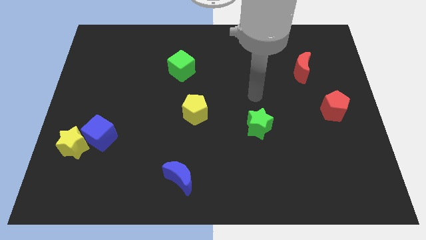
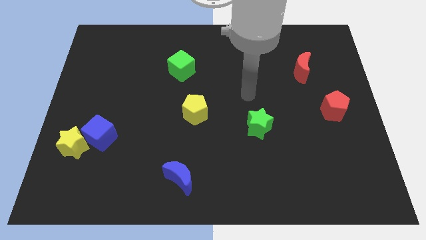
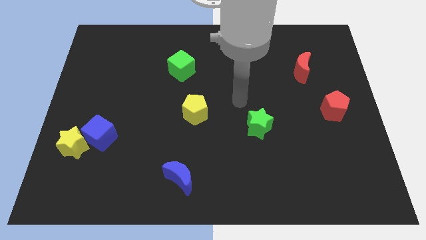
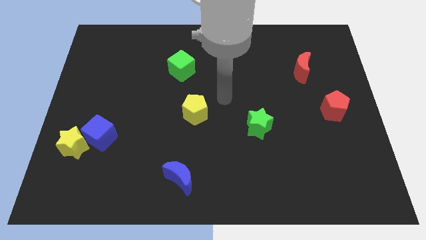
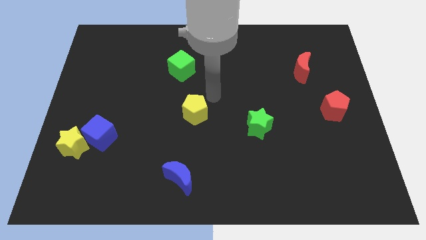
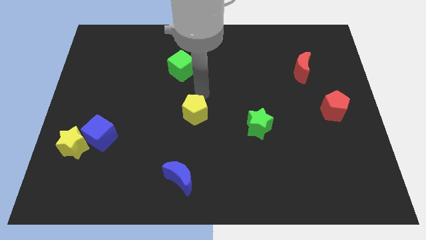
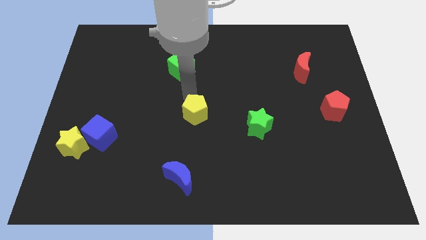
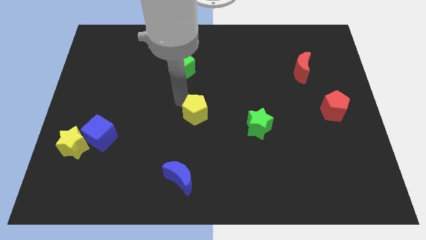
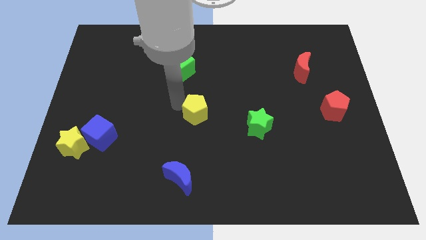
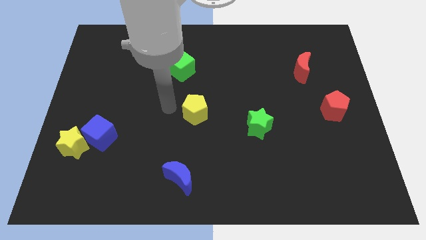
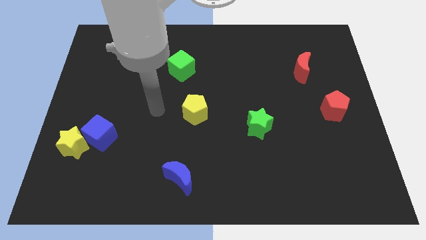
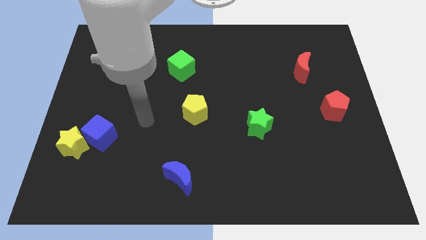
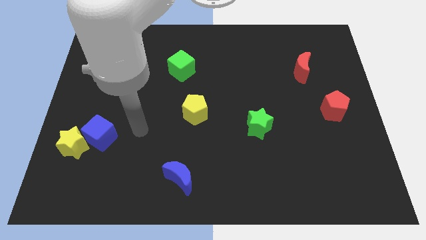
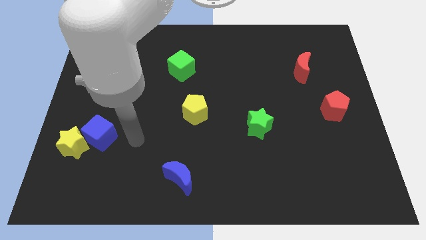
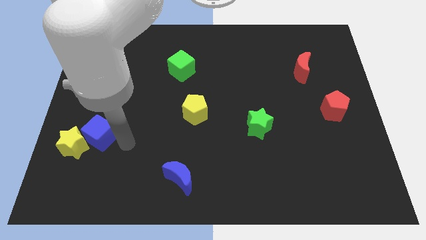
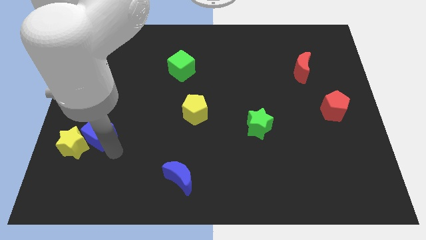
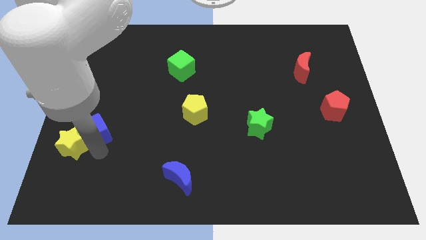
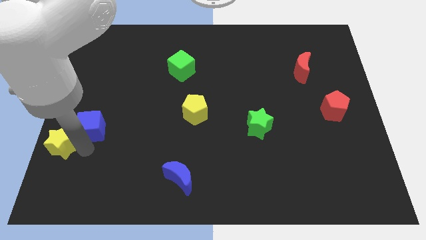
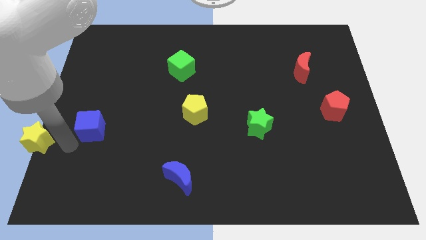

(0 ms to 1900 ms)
pull the blue cube apart from the yellow star

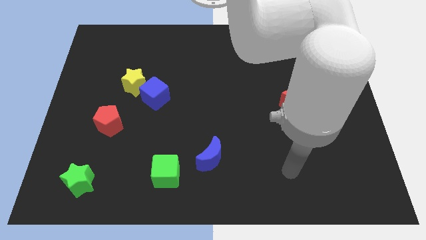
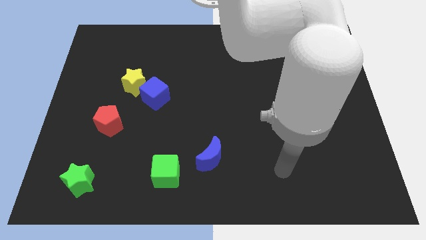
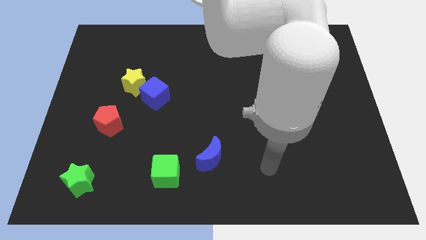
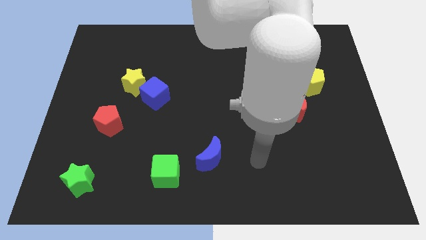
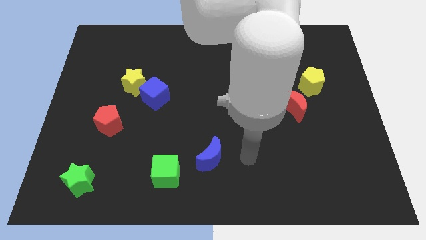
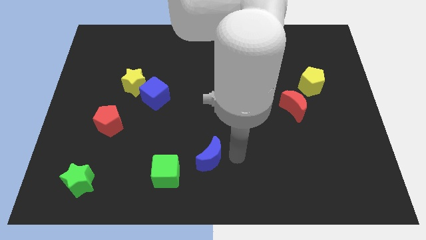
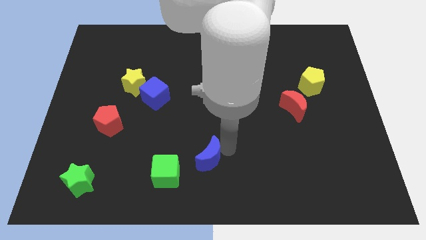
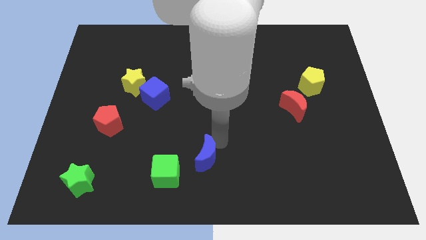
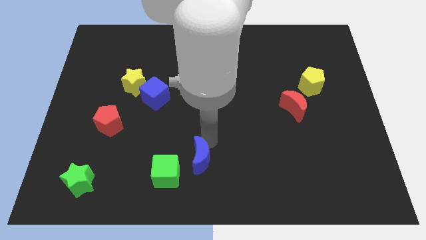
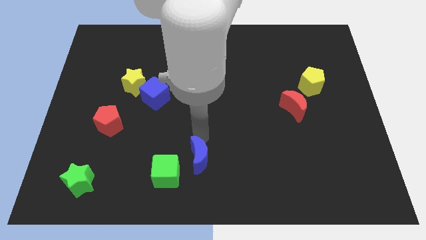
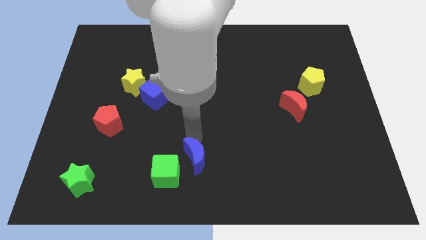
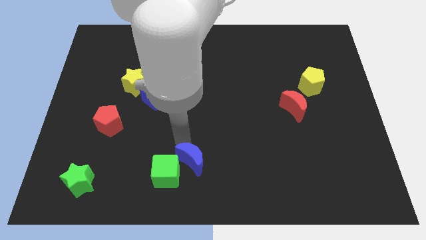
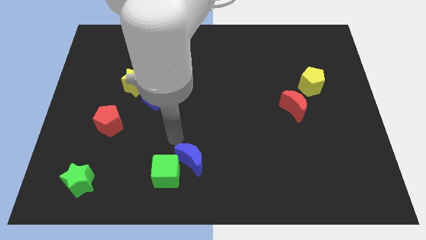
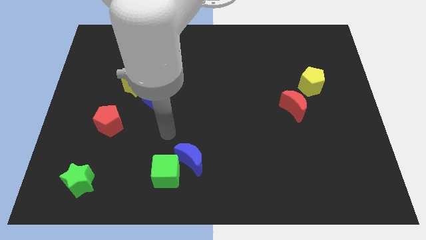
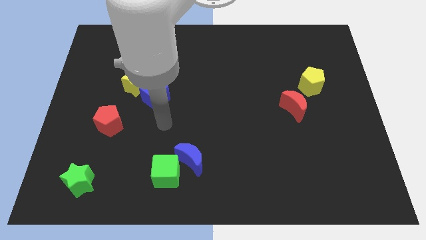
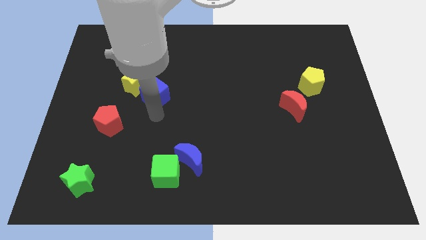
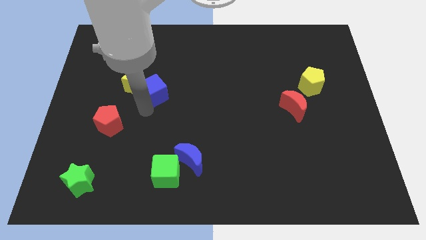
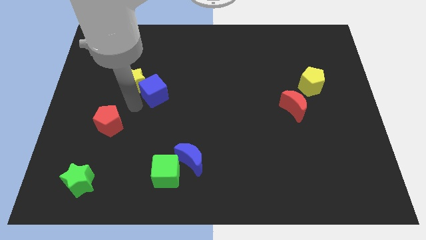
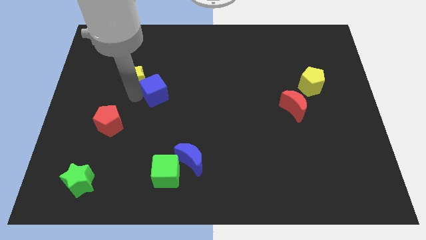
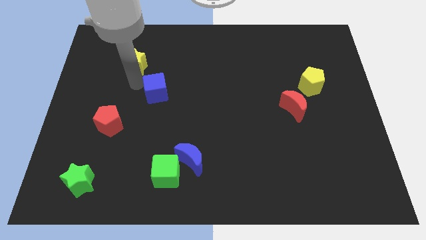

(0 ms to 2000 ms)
move the blue cube away from the yellow star

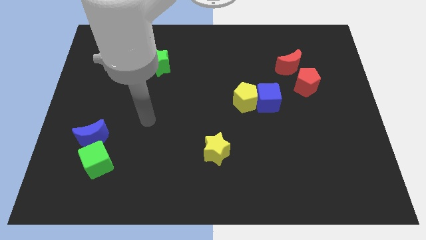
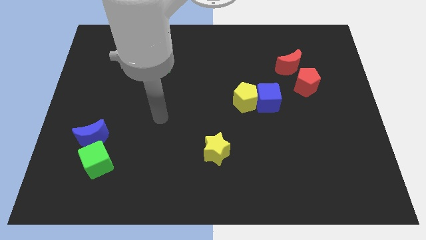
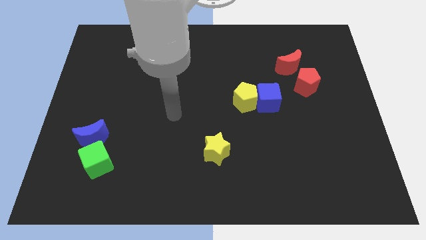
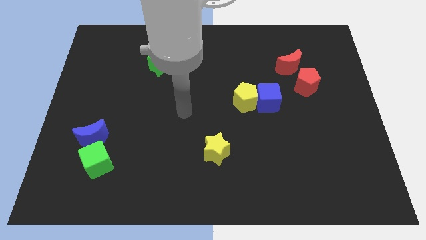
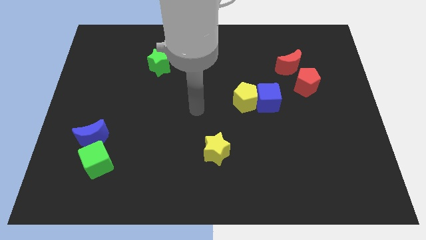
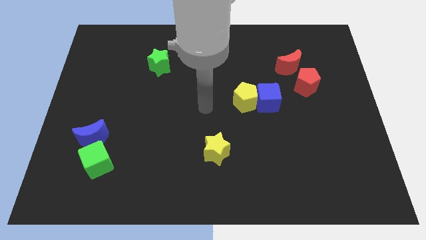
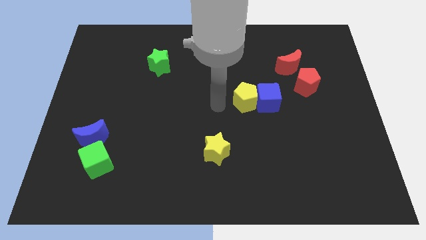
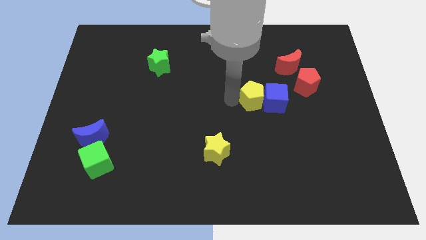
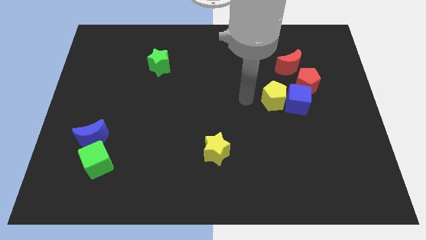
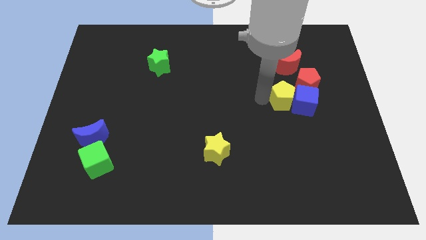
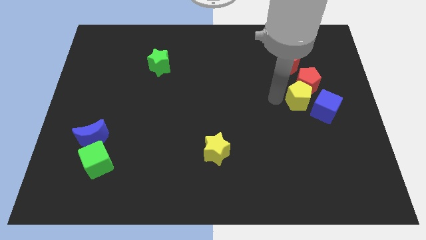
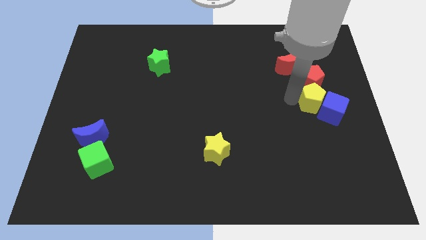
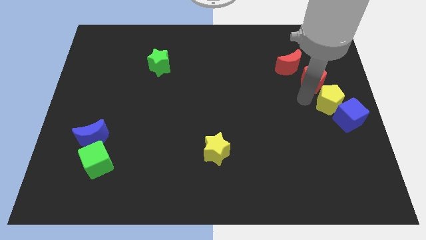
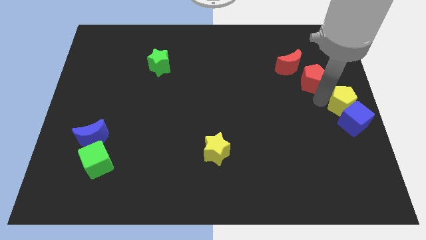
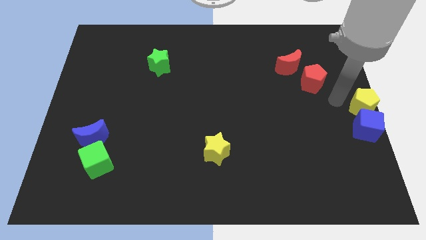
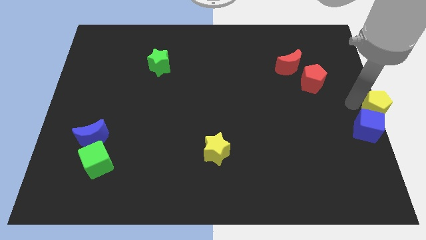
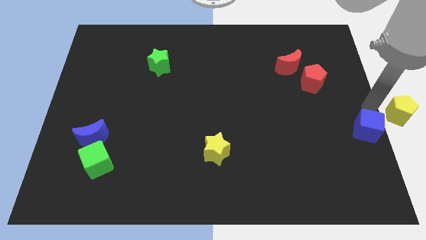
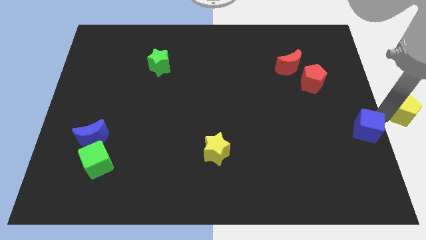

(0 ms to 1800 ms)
pull the blue cube apart from the yellow pentagon

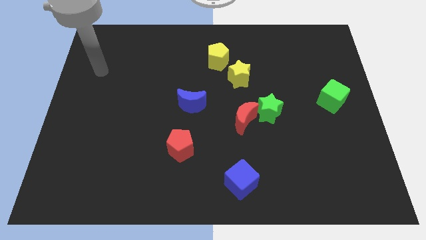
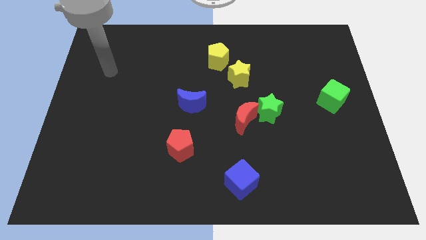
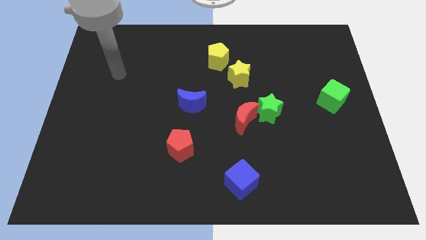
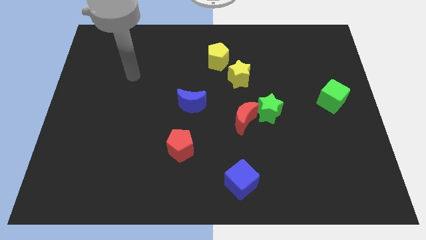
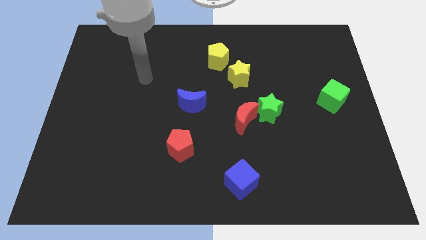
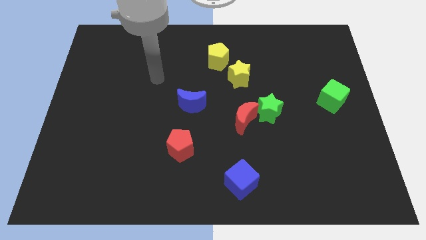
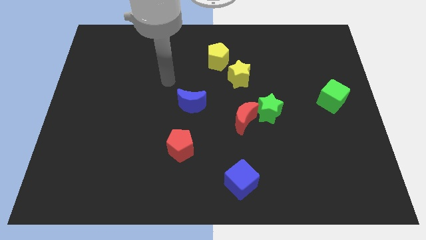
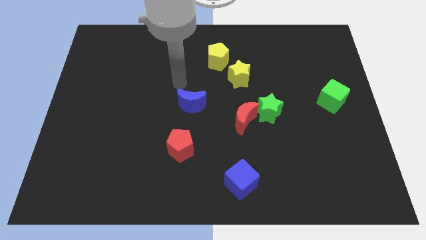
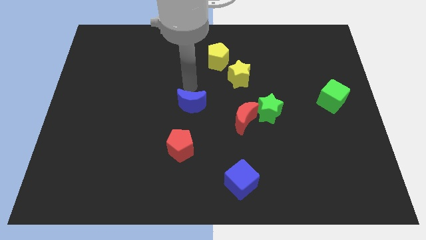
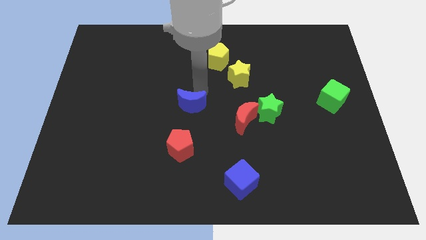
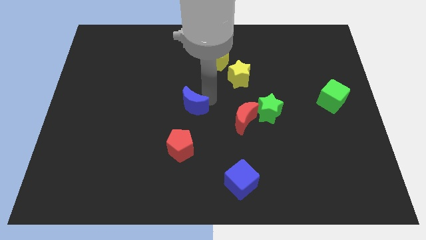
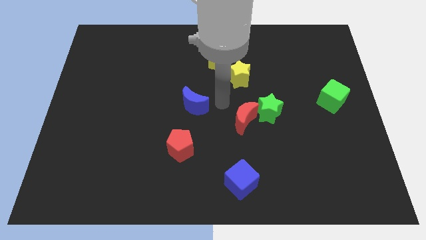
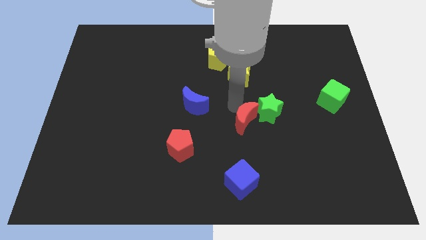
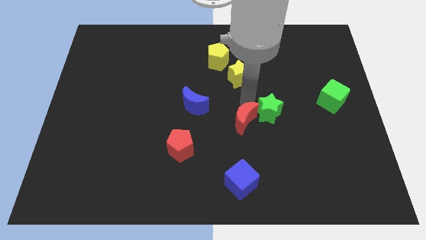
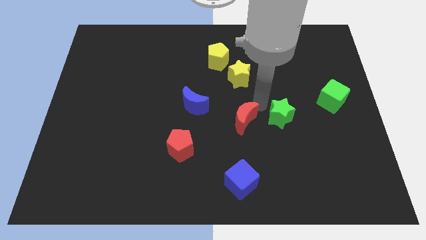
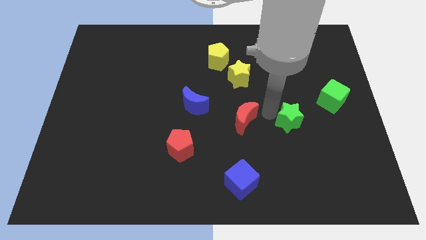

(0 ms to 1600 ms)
move the red moon away from the green star

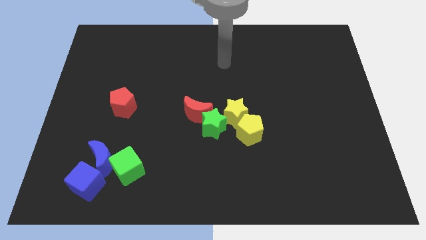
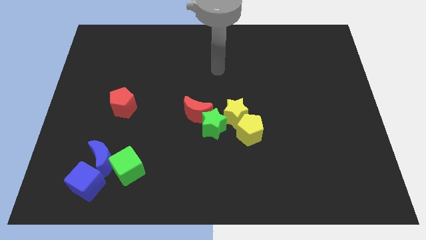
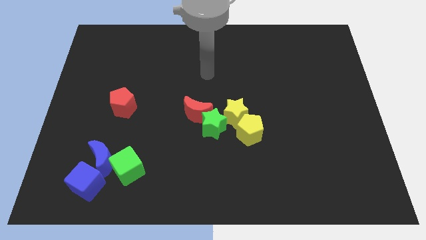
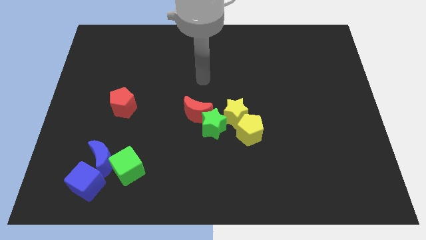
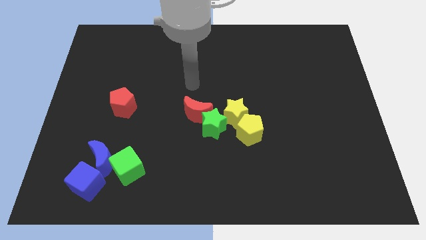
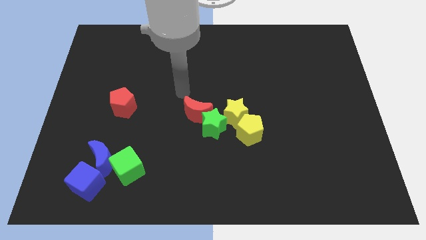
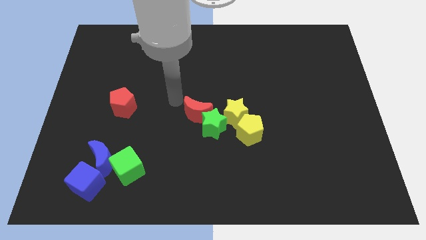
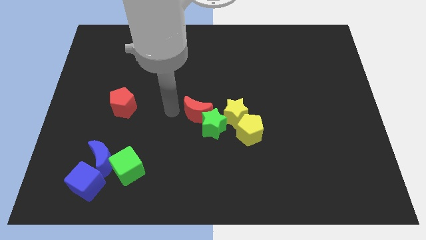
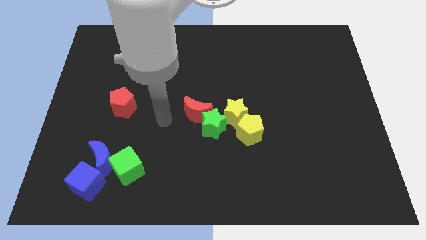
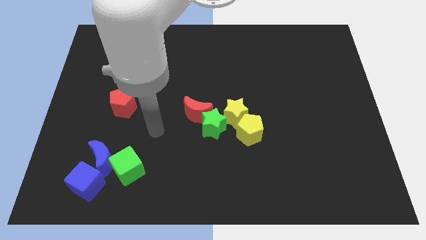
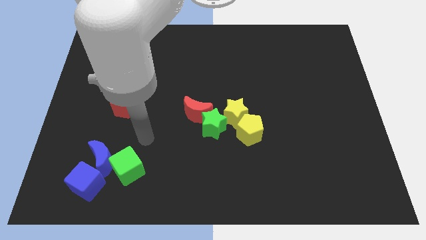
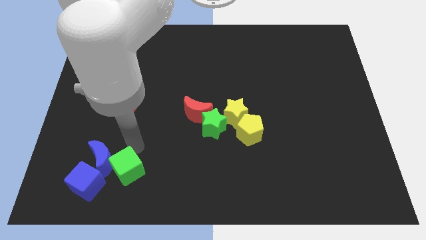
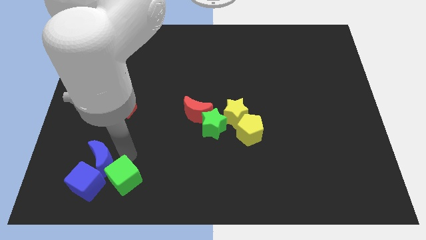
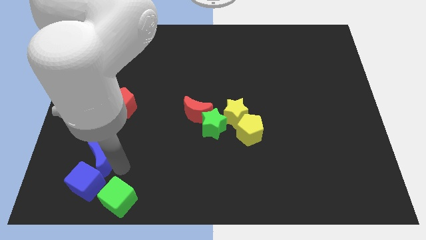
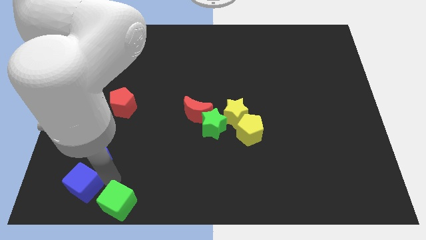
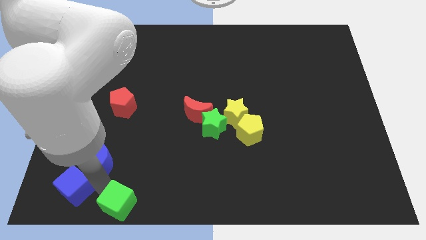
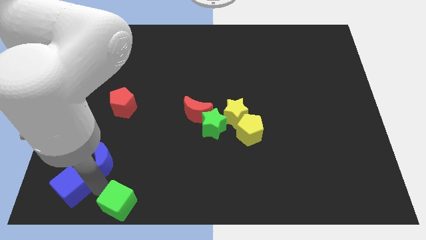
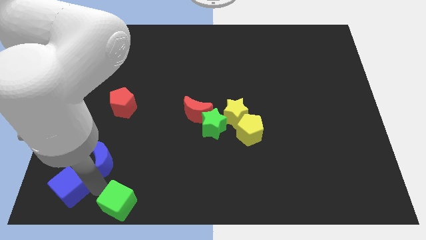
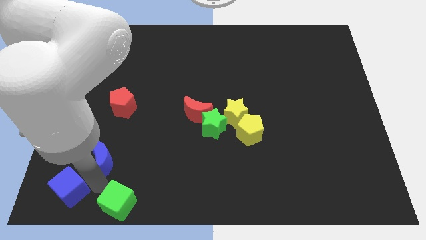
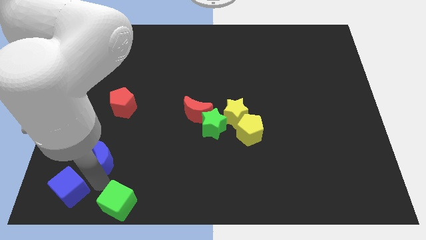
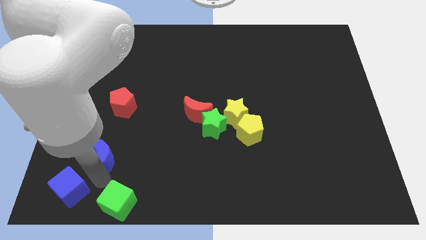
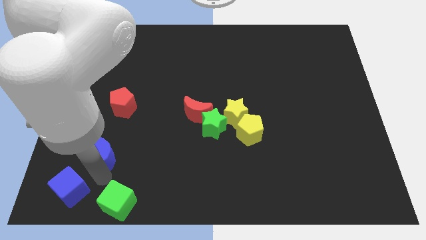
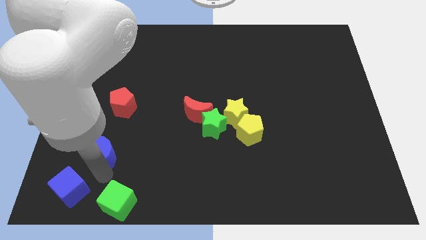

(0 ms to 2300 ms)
move the blue moon away from the green cube and blue cube
